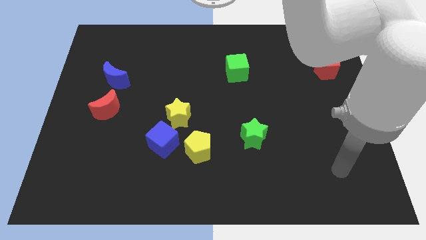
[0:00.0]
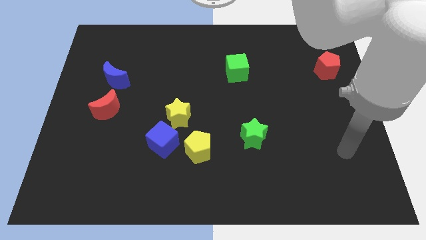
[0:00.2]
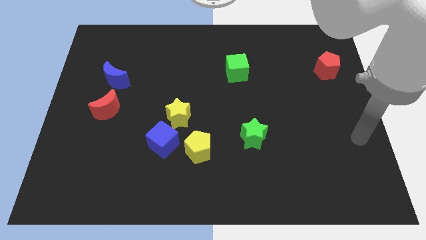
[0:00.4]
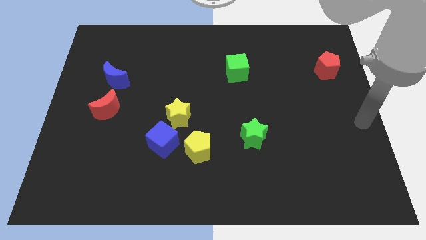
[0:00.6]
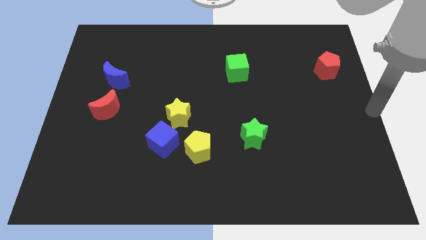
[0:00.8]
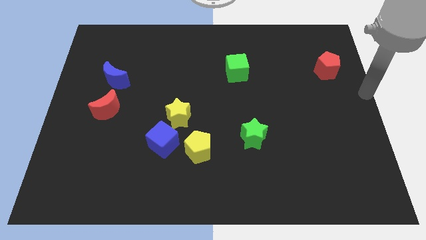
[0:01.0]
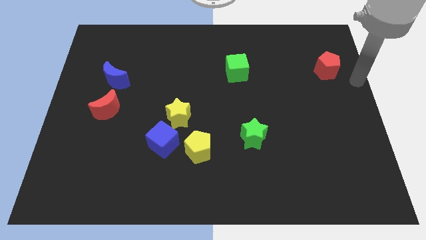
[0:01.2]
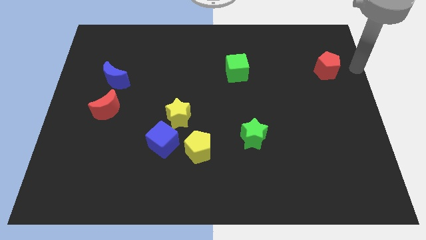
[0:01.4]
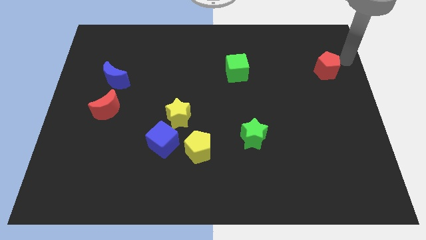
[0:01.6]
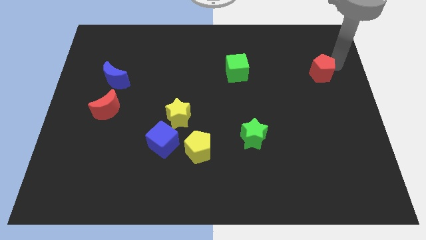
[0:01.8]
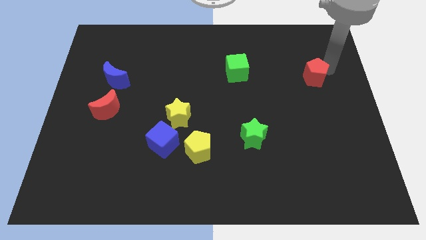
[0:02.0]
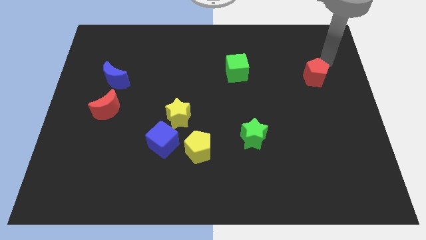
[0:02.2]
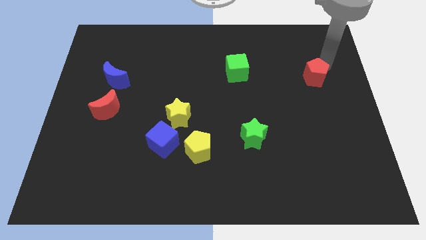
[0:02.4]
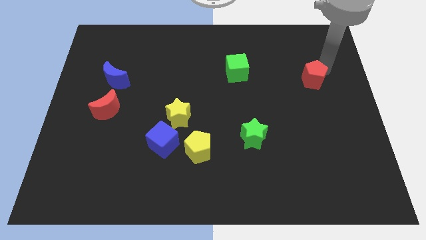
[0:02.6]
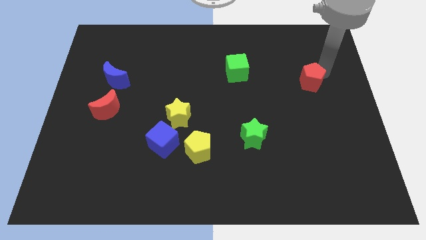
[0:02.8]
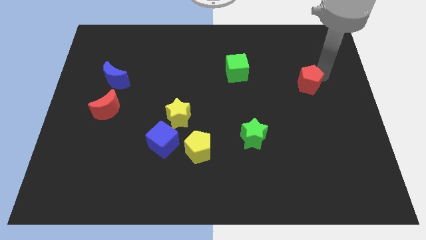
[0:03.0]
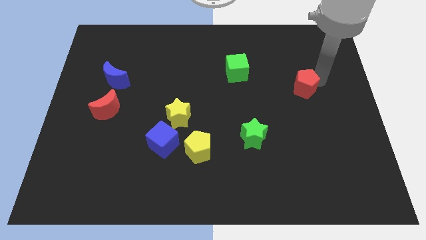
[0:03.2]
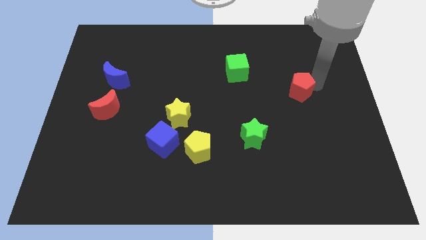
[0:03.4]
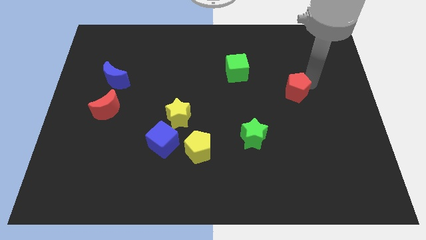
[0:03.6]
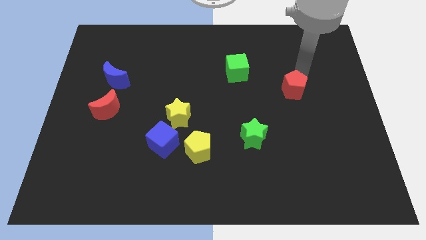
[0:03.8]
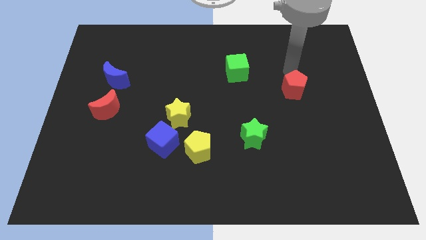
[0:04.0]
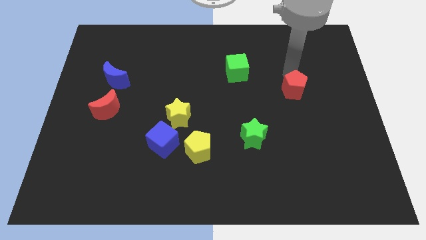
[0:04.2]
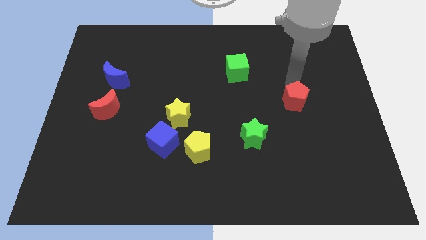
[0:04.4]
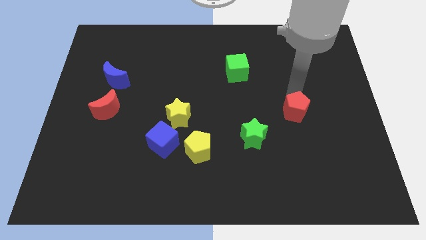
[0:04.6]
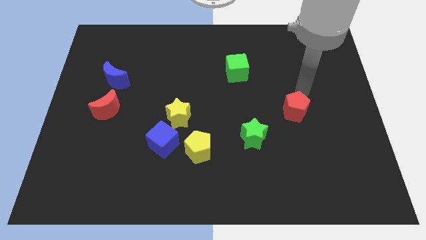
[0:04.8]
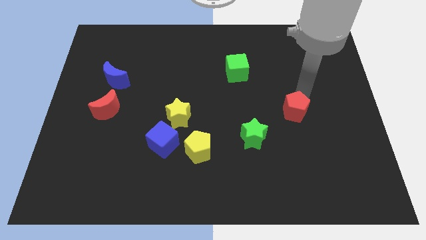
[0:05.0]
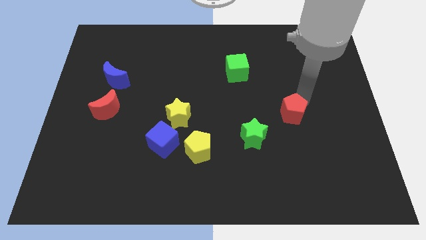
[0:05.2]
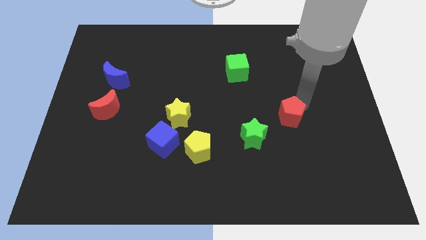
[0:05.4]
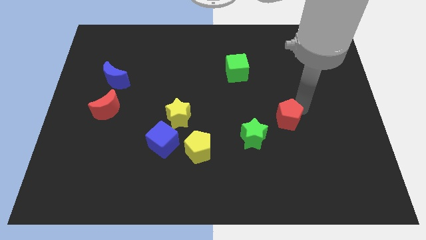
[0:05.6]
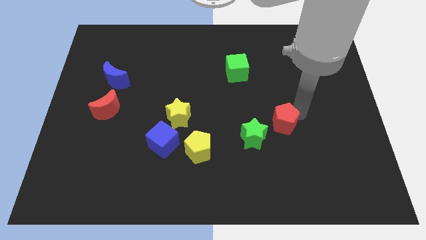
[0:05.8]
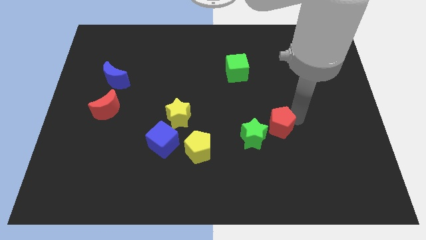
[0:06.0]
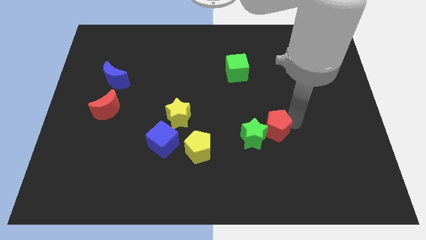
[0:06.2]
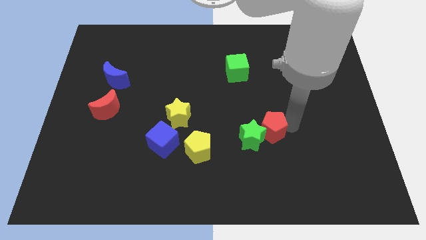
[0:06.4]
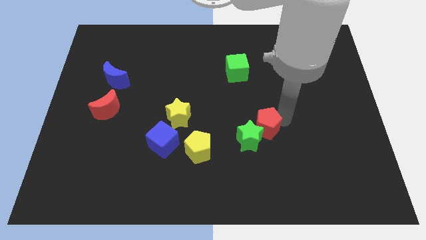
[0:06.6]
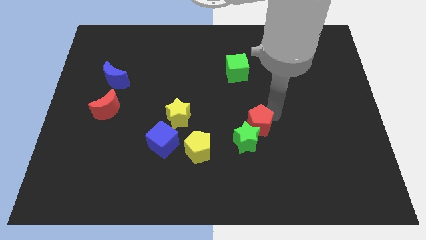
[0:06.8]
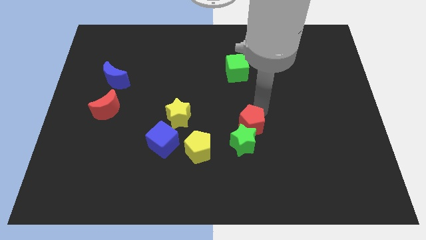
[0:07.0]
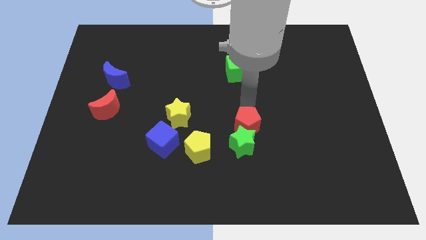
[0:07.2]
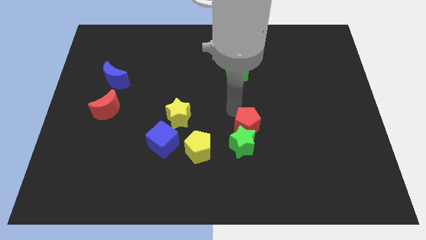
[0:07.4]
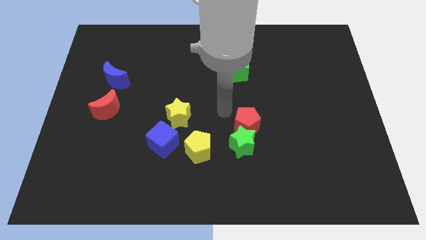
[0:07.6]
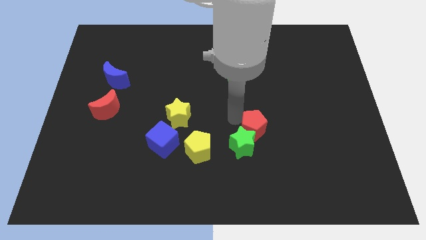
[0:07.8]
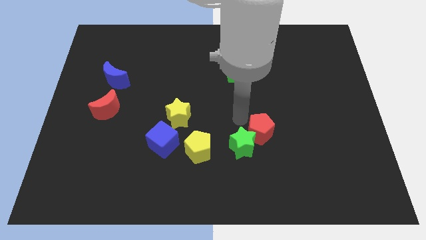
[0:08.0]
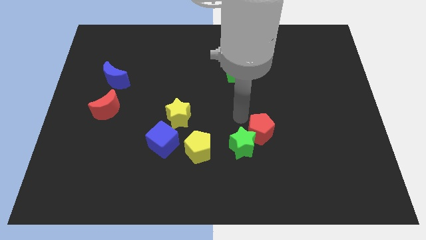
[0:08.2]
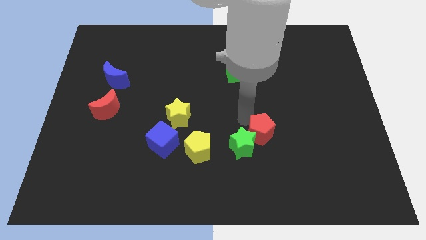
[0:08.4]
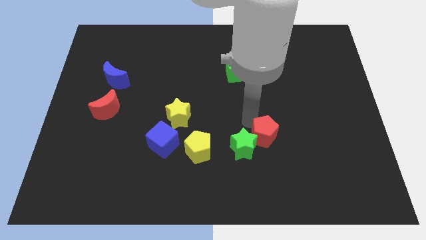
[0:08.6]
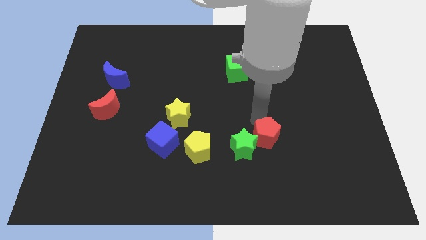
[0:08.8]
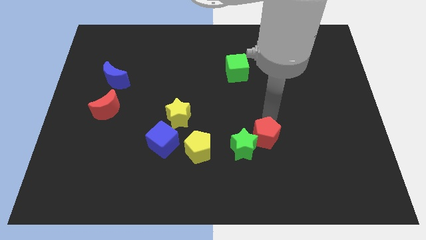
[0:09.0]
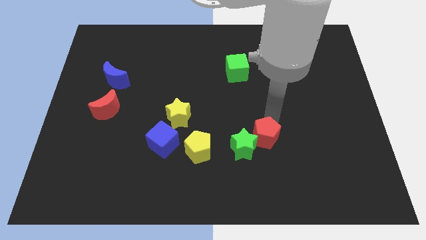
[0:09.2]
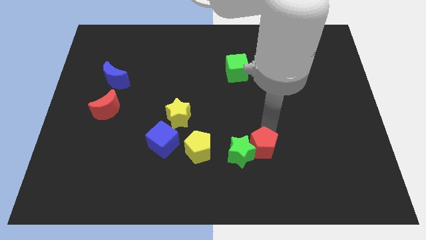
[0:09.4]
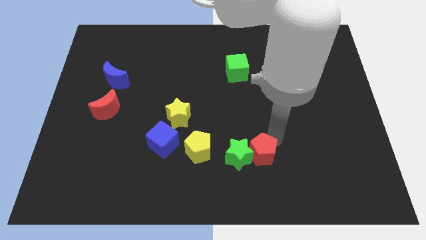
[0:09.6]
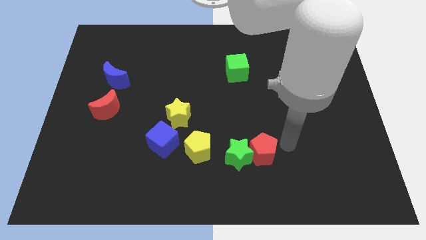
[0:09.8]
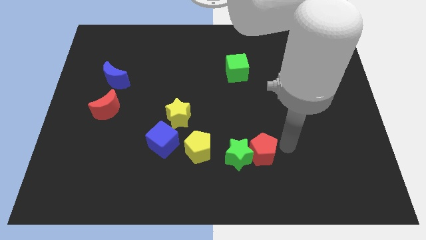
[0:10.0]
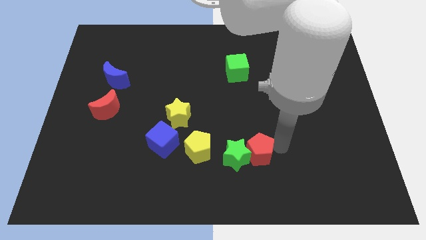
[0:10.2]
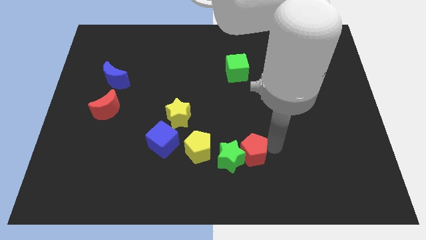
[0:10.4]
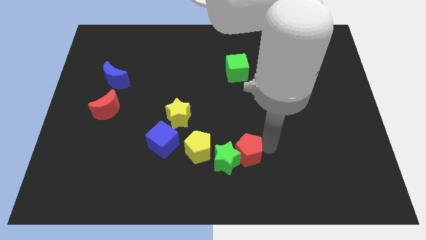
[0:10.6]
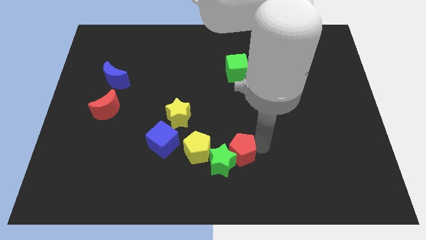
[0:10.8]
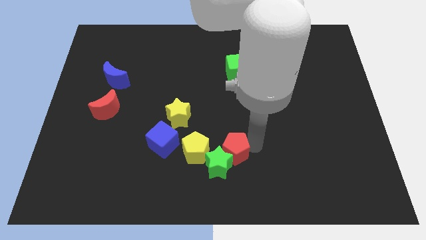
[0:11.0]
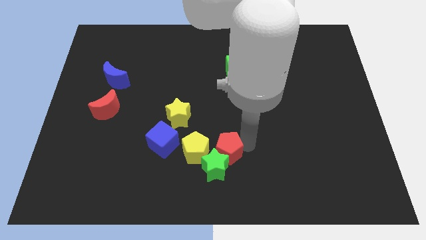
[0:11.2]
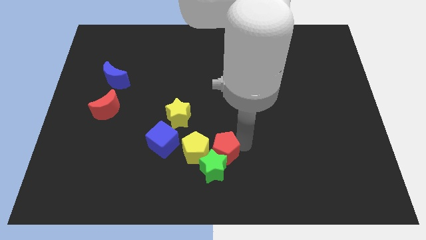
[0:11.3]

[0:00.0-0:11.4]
move the red pentagon to the bottom right of the yellow pentagon

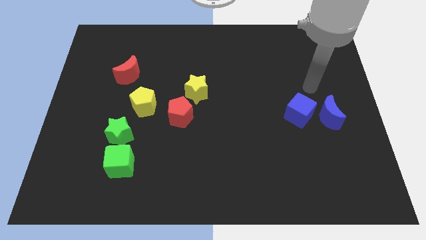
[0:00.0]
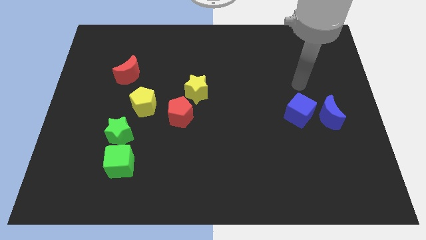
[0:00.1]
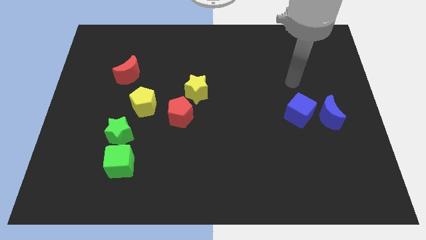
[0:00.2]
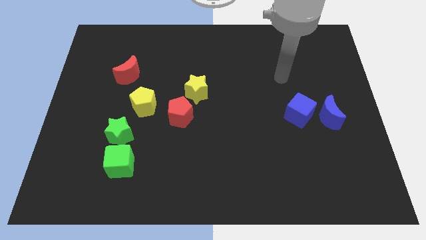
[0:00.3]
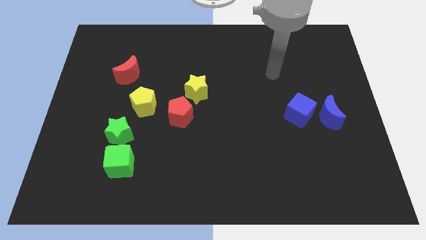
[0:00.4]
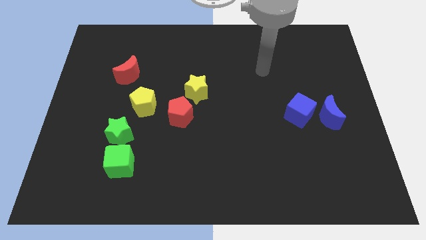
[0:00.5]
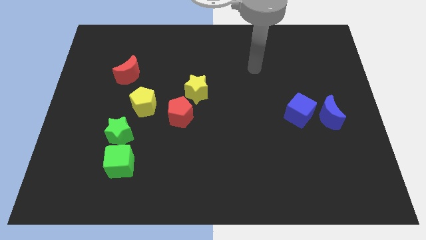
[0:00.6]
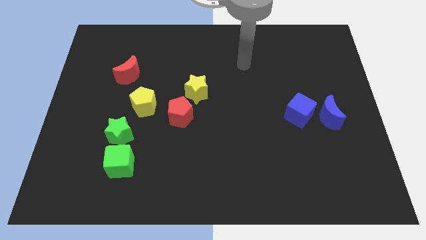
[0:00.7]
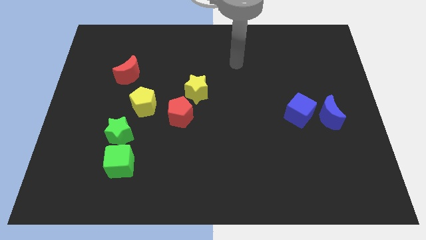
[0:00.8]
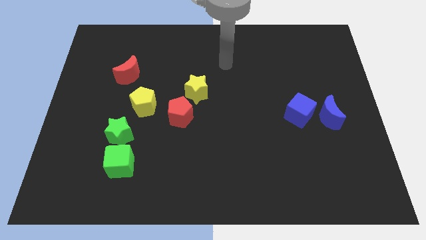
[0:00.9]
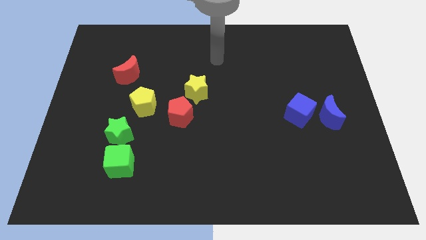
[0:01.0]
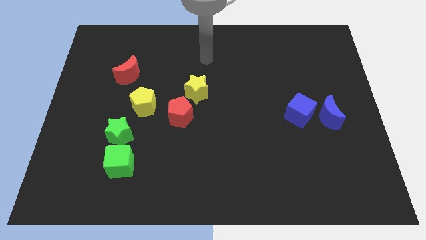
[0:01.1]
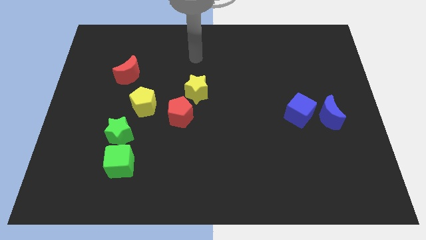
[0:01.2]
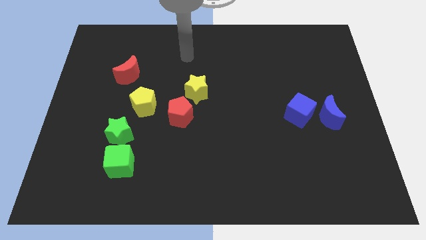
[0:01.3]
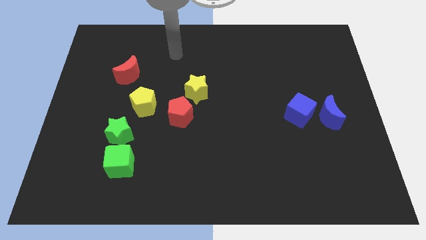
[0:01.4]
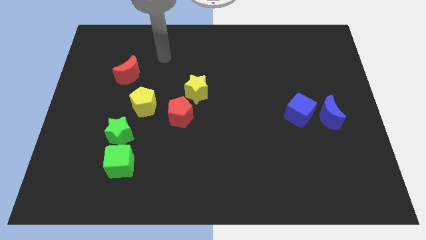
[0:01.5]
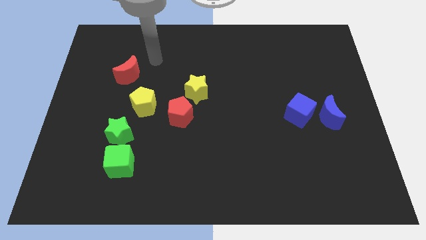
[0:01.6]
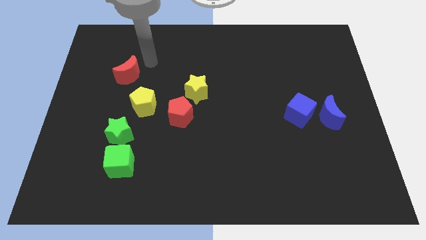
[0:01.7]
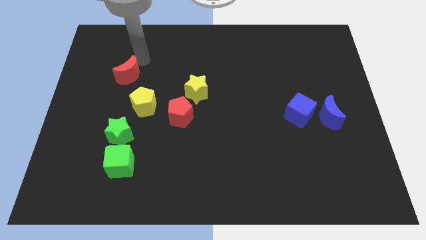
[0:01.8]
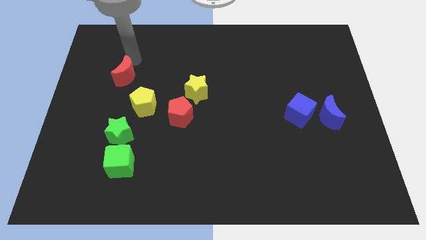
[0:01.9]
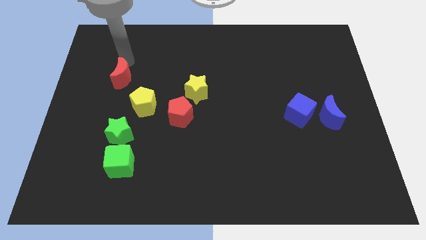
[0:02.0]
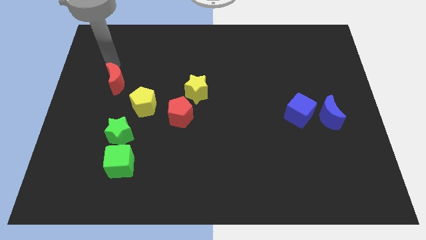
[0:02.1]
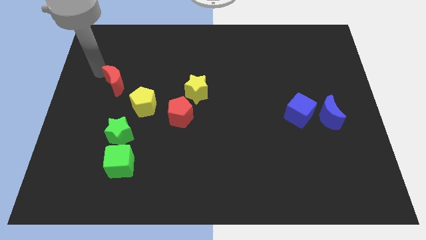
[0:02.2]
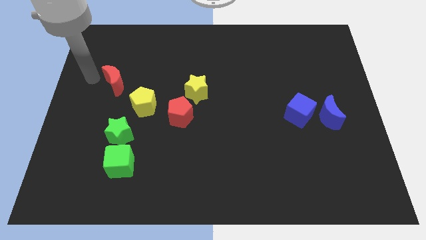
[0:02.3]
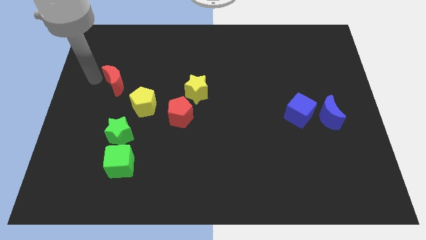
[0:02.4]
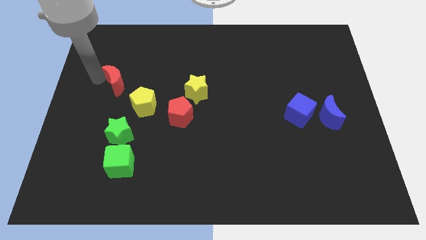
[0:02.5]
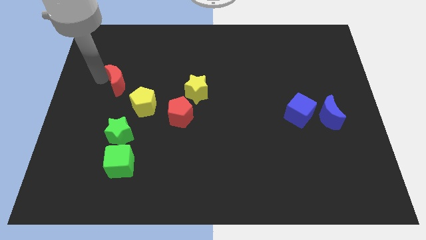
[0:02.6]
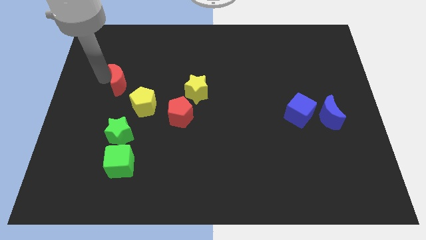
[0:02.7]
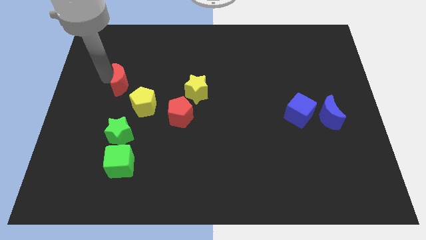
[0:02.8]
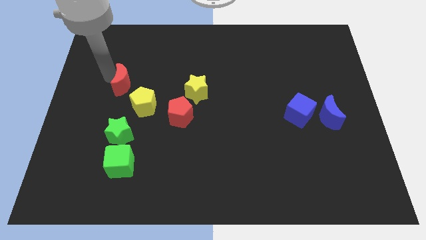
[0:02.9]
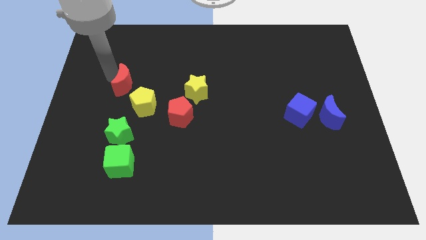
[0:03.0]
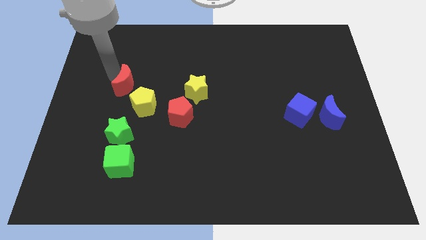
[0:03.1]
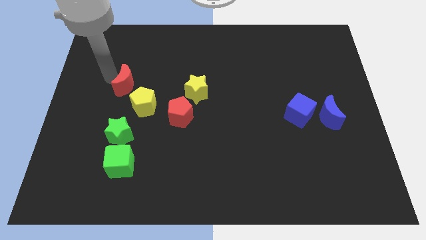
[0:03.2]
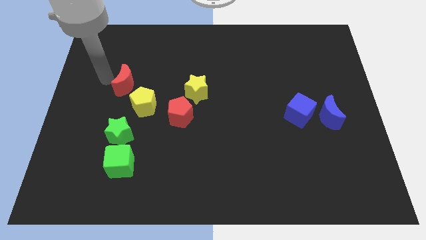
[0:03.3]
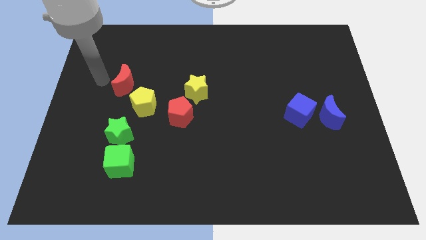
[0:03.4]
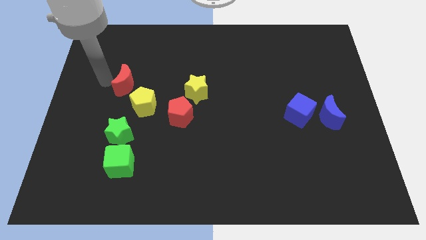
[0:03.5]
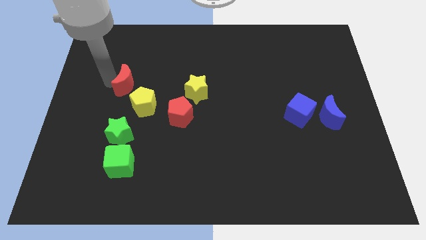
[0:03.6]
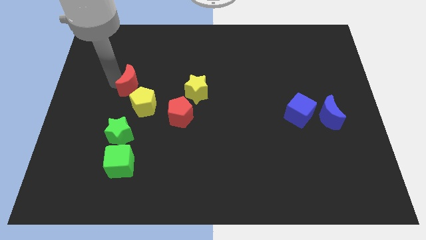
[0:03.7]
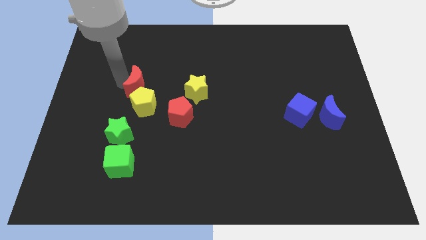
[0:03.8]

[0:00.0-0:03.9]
slide the red moon just left of the yellow star
